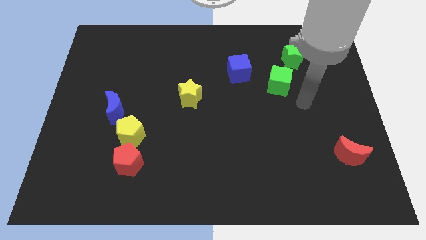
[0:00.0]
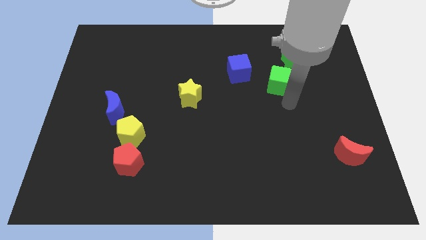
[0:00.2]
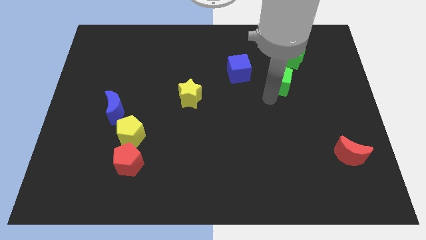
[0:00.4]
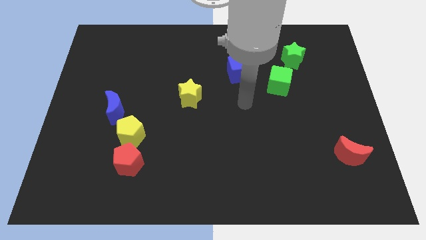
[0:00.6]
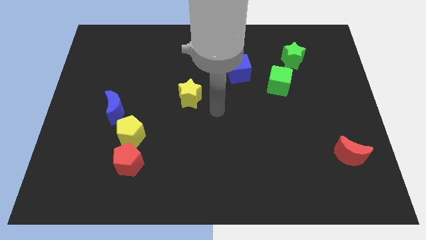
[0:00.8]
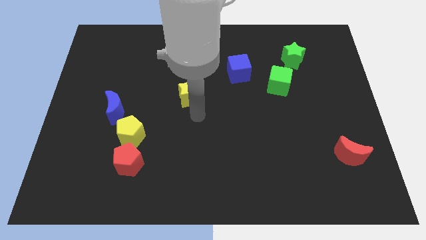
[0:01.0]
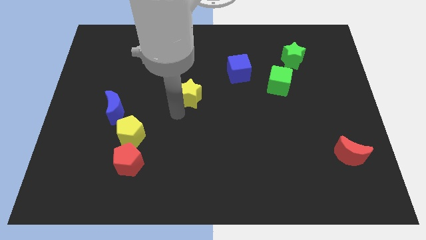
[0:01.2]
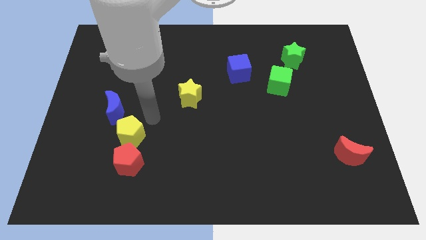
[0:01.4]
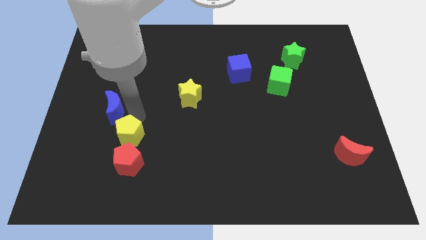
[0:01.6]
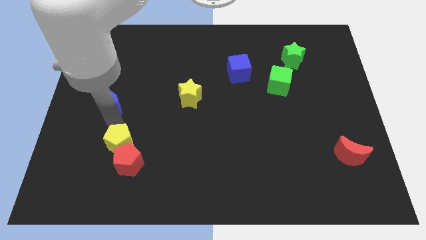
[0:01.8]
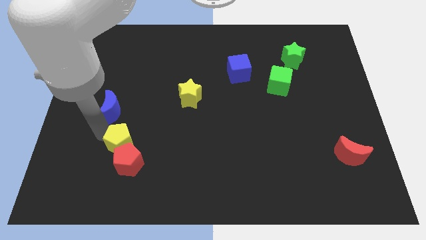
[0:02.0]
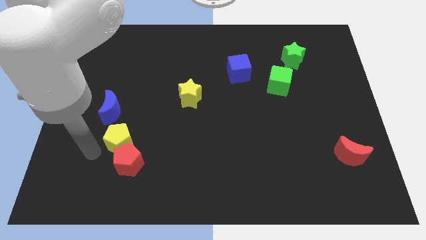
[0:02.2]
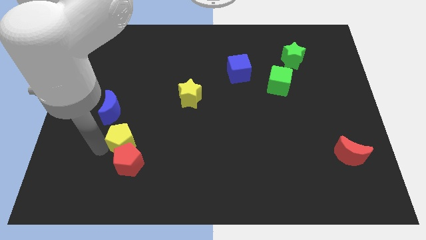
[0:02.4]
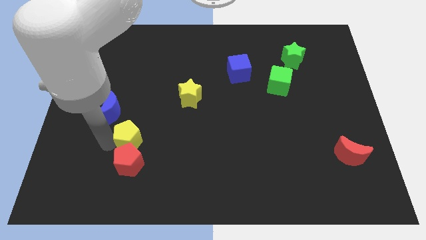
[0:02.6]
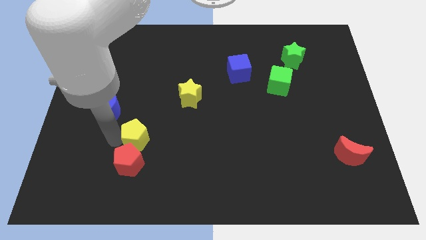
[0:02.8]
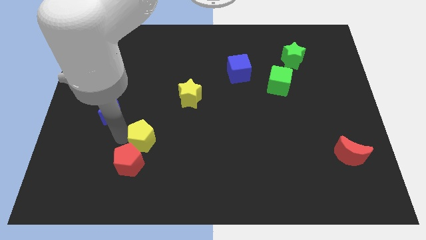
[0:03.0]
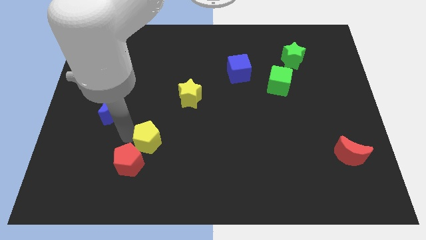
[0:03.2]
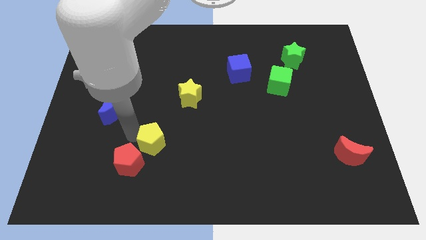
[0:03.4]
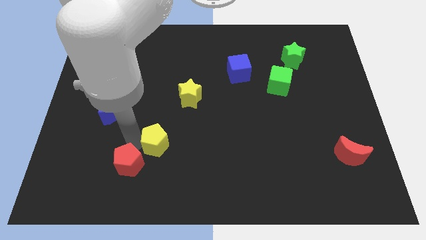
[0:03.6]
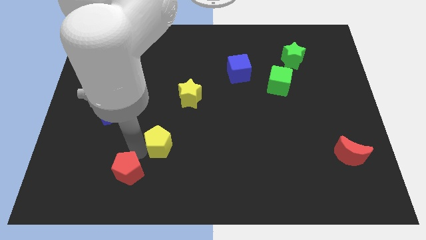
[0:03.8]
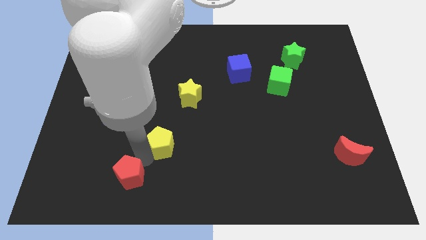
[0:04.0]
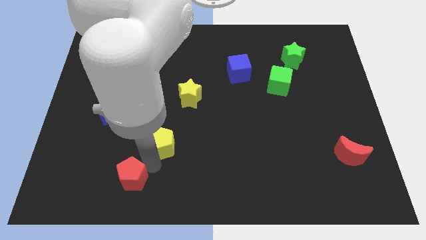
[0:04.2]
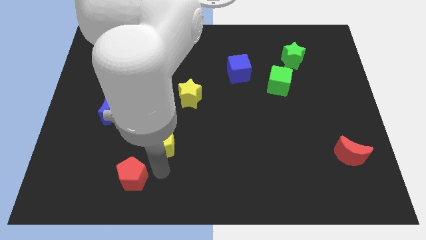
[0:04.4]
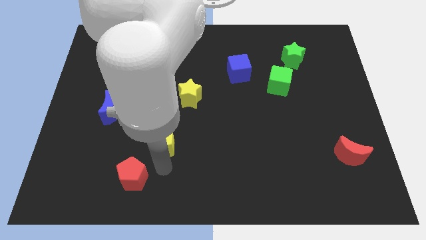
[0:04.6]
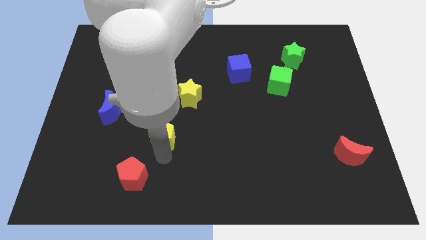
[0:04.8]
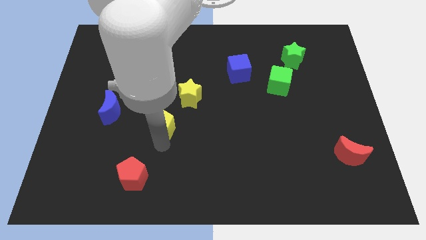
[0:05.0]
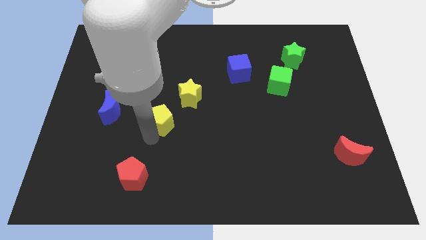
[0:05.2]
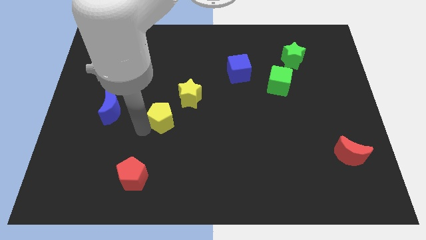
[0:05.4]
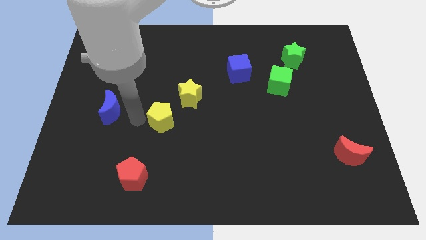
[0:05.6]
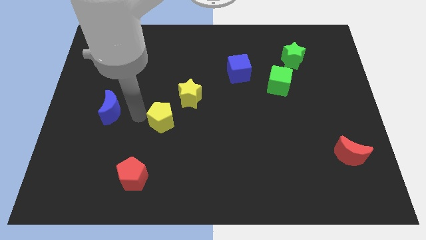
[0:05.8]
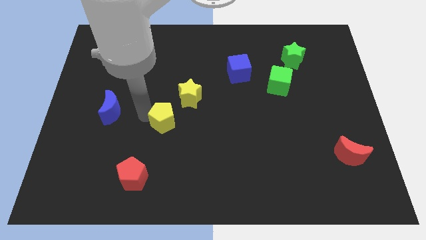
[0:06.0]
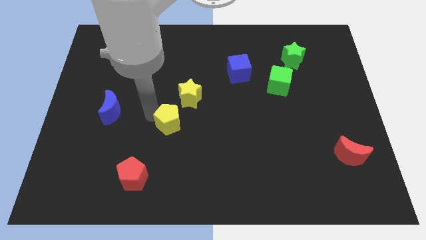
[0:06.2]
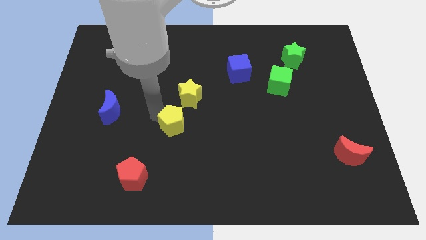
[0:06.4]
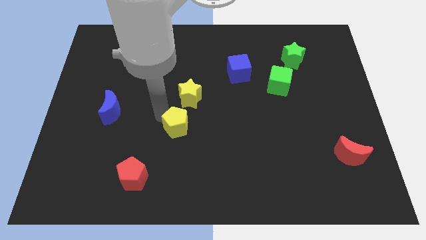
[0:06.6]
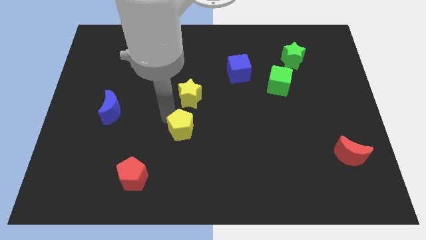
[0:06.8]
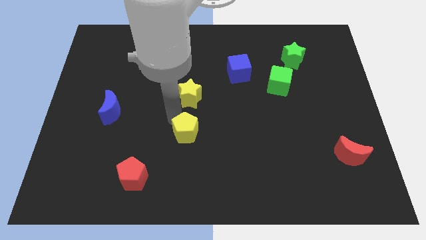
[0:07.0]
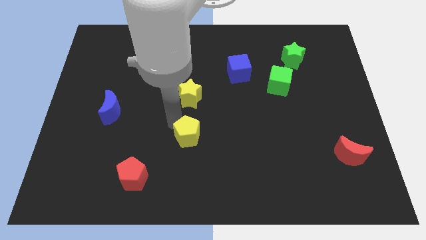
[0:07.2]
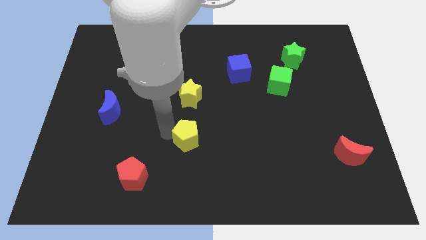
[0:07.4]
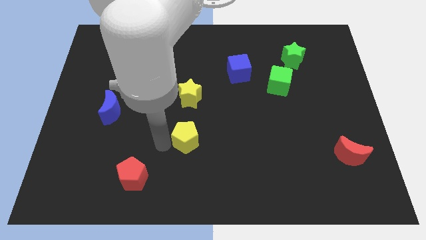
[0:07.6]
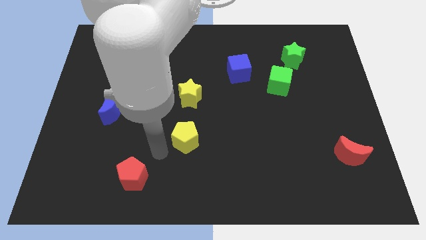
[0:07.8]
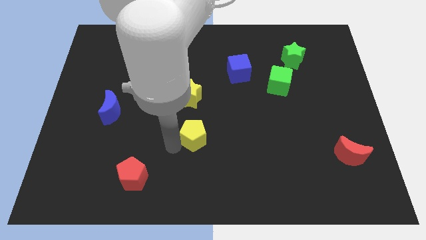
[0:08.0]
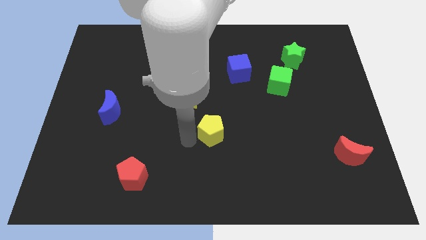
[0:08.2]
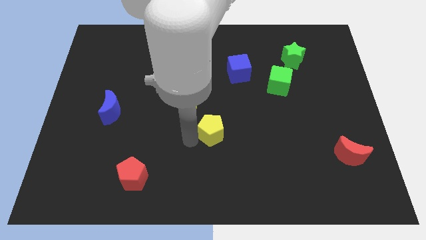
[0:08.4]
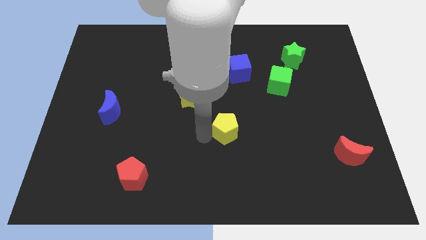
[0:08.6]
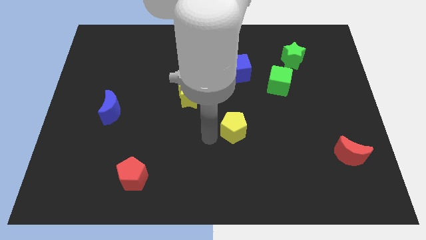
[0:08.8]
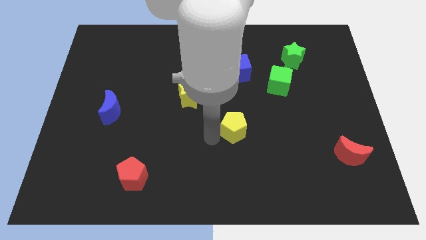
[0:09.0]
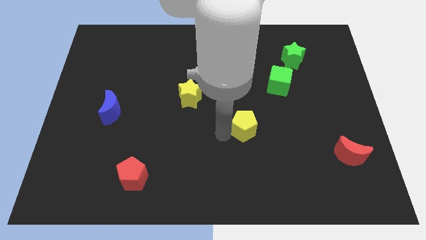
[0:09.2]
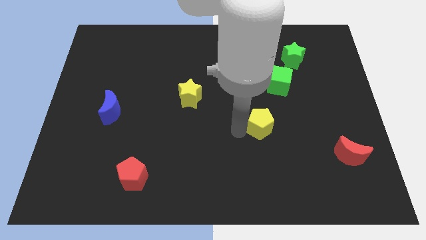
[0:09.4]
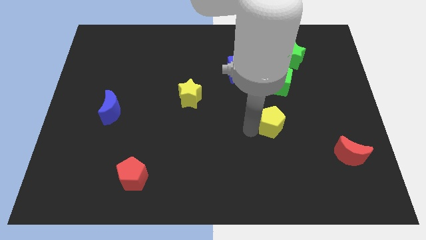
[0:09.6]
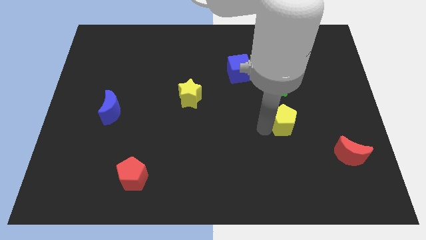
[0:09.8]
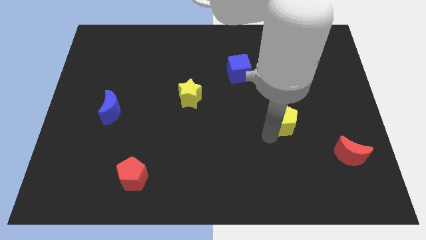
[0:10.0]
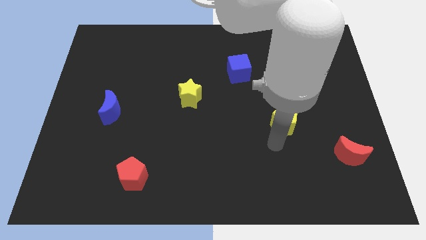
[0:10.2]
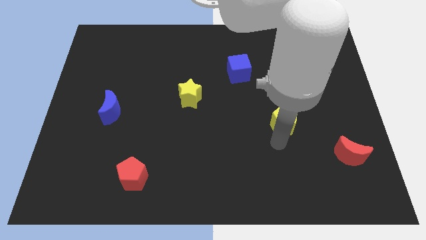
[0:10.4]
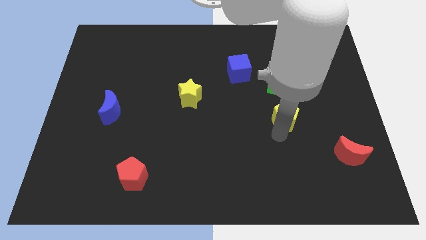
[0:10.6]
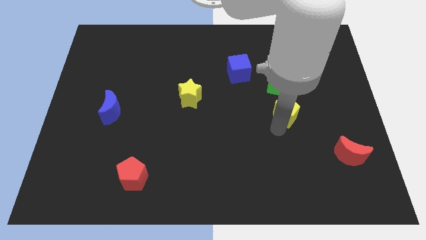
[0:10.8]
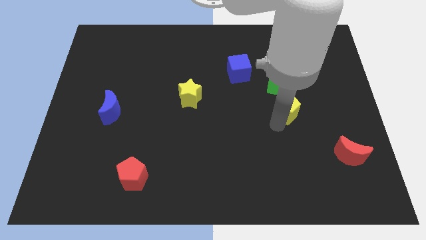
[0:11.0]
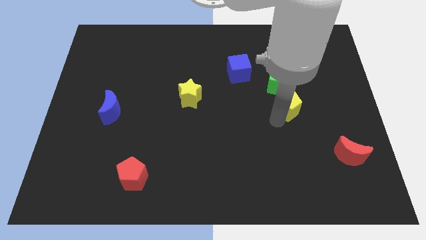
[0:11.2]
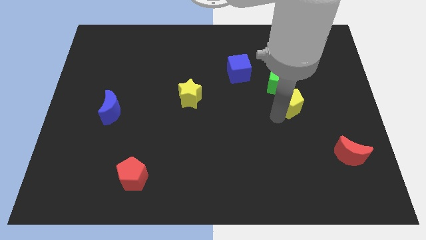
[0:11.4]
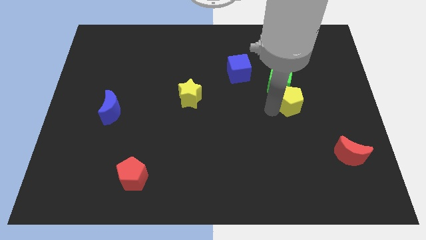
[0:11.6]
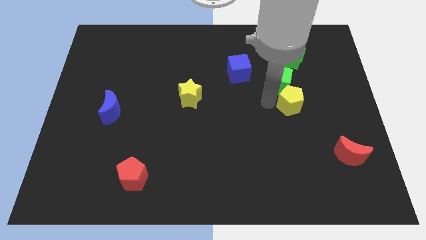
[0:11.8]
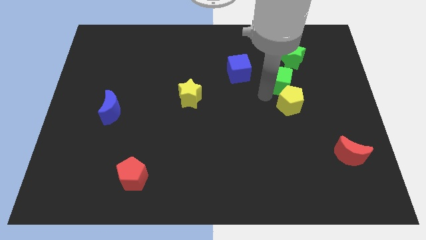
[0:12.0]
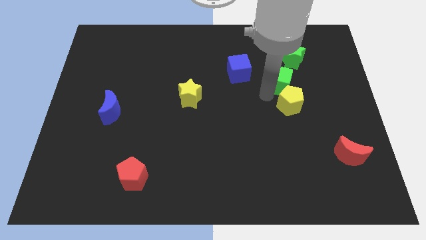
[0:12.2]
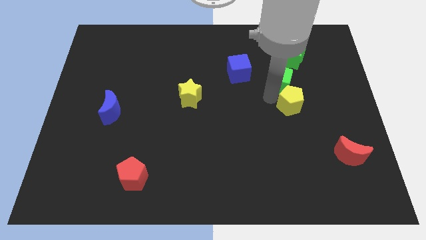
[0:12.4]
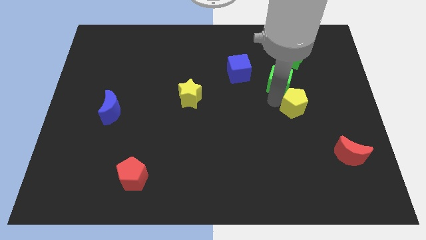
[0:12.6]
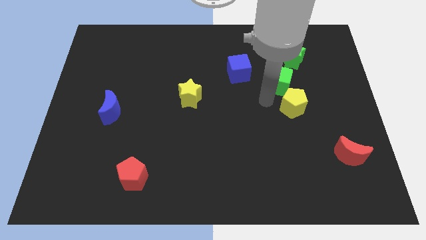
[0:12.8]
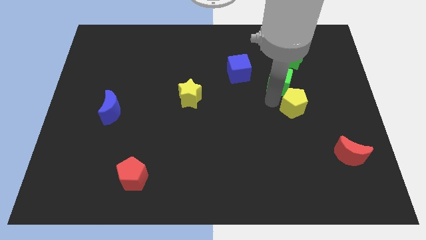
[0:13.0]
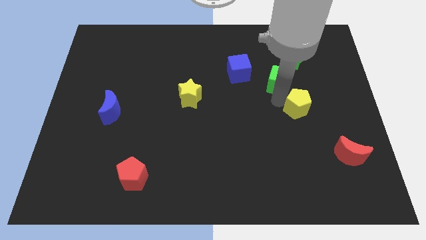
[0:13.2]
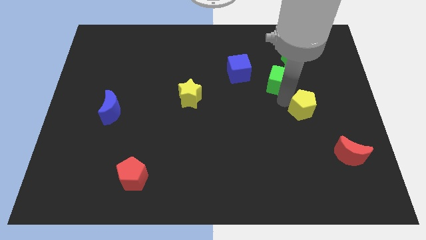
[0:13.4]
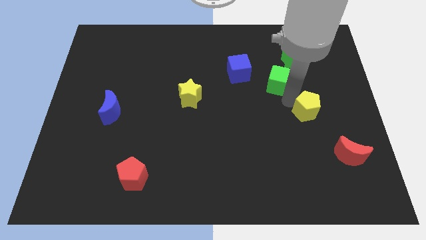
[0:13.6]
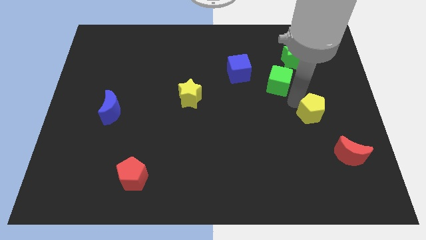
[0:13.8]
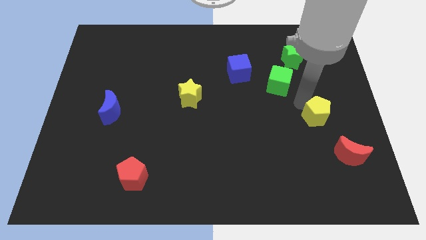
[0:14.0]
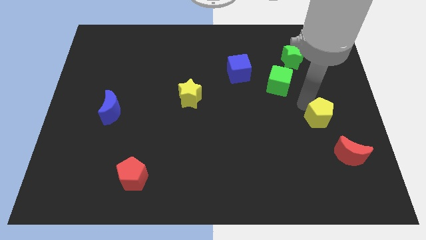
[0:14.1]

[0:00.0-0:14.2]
slide the yellow pentagon to the top side of the red moon

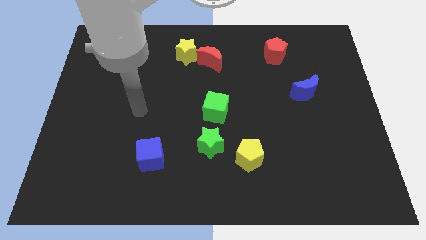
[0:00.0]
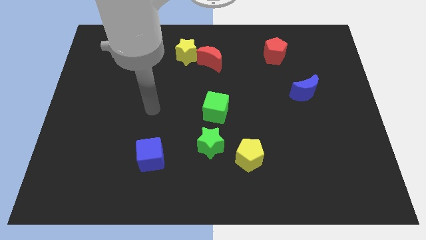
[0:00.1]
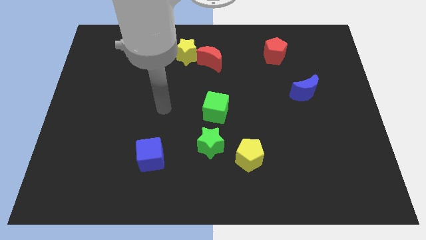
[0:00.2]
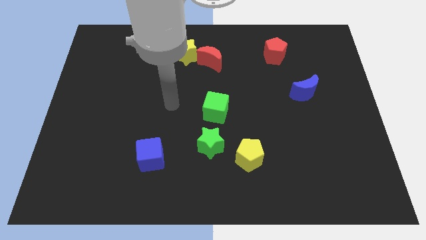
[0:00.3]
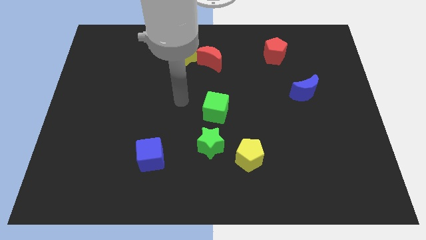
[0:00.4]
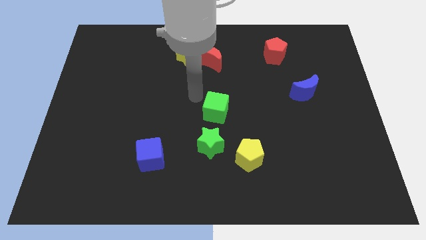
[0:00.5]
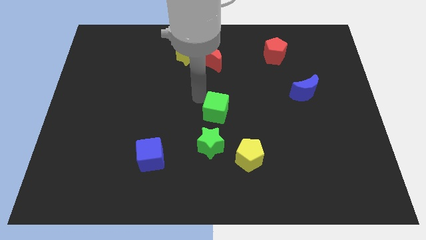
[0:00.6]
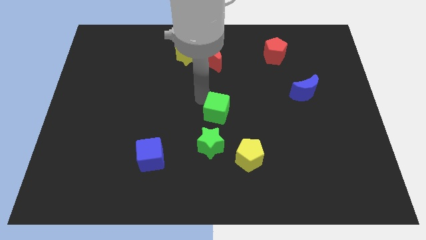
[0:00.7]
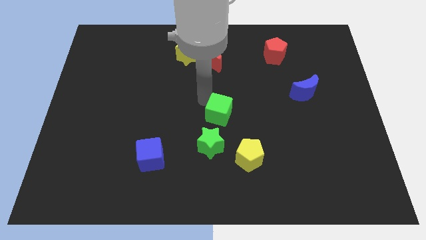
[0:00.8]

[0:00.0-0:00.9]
push the green cube to the top right of the green star
